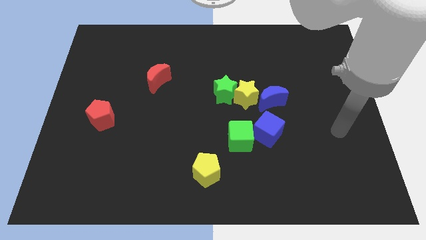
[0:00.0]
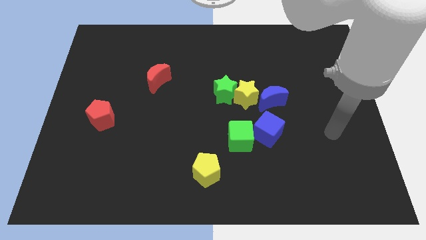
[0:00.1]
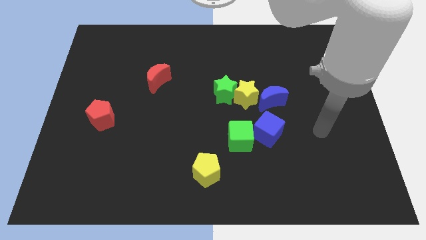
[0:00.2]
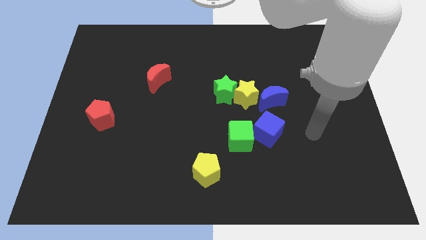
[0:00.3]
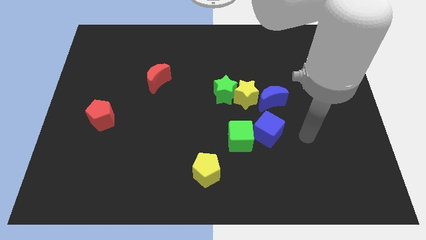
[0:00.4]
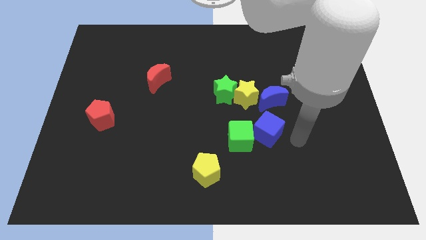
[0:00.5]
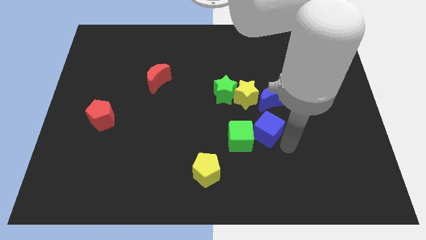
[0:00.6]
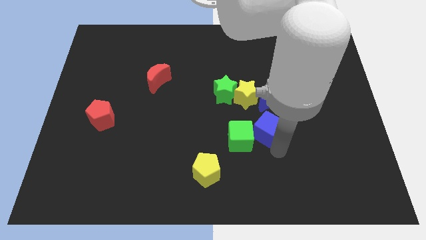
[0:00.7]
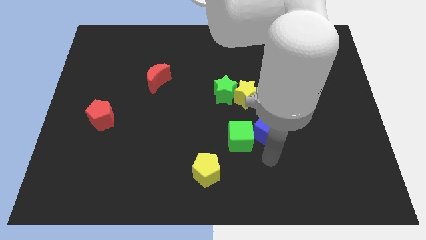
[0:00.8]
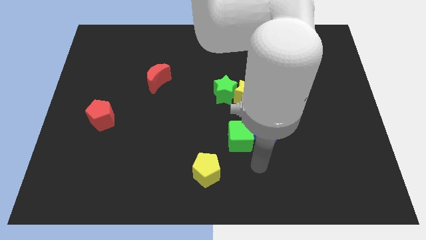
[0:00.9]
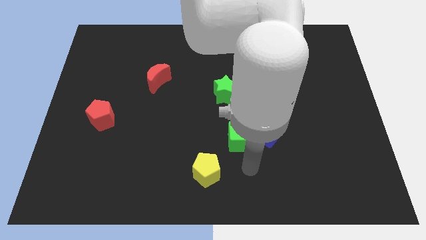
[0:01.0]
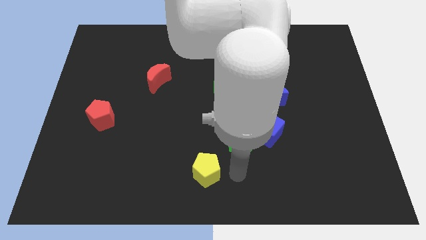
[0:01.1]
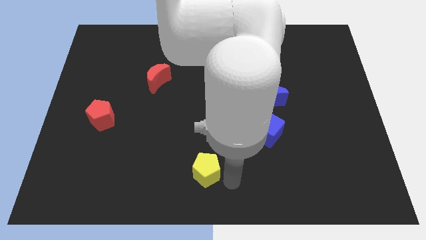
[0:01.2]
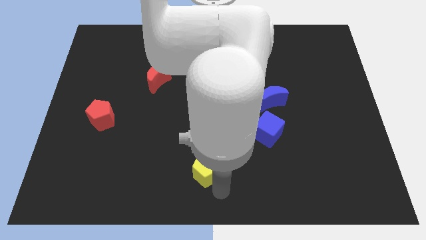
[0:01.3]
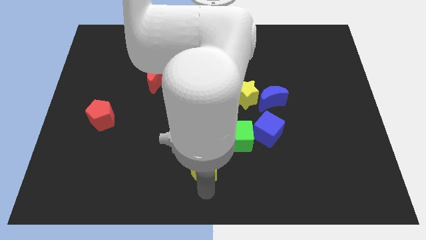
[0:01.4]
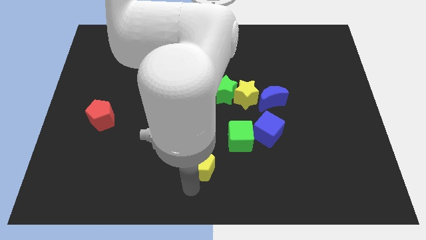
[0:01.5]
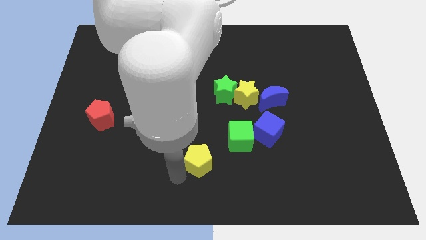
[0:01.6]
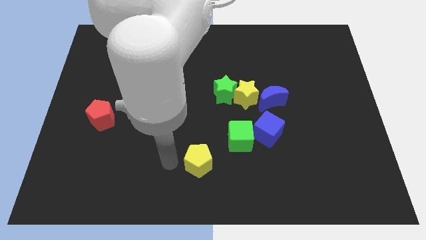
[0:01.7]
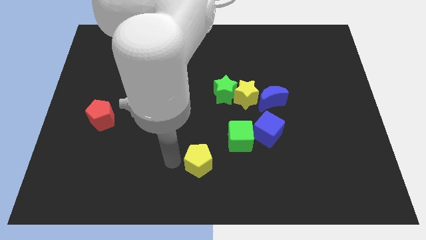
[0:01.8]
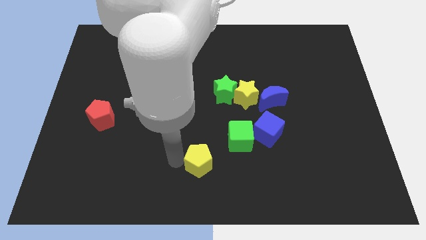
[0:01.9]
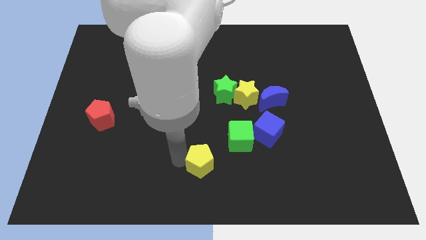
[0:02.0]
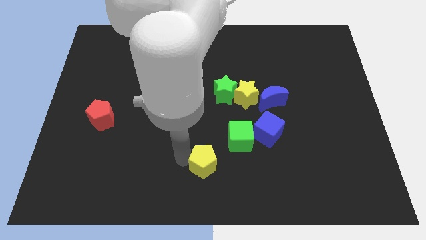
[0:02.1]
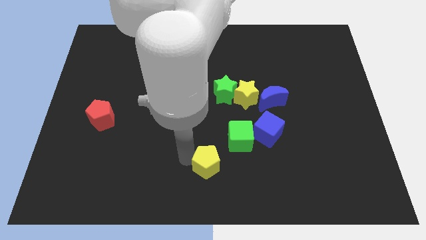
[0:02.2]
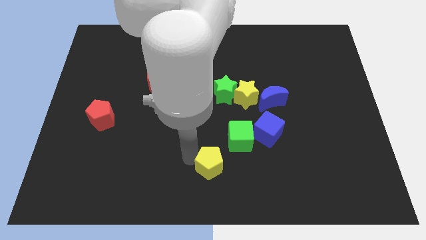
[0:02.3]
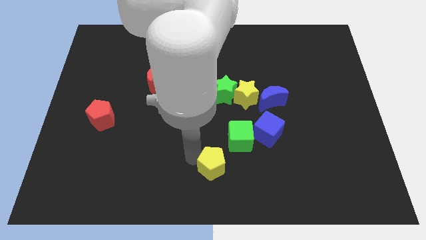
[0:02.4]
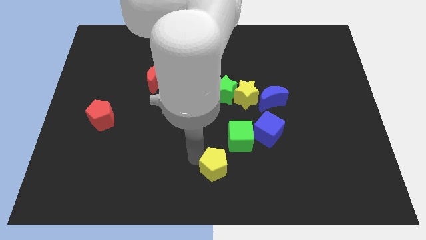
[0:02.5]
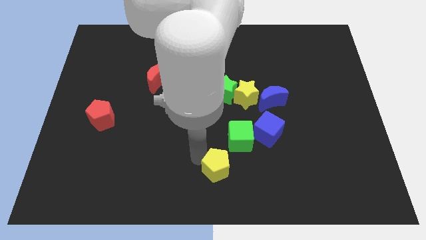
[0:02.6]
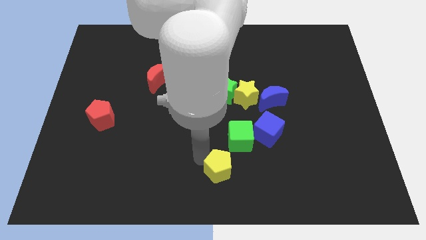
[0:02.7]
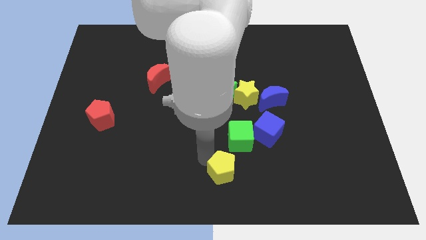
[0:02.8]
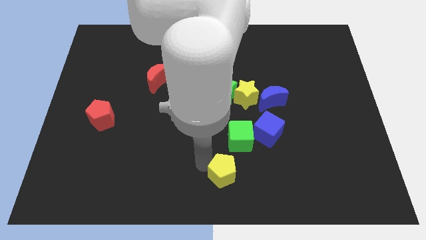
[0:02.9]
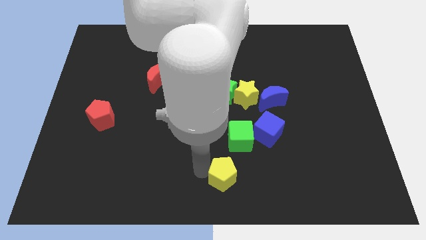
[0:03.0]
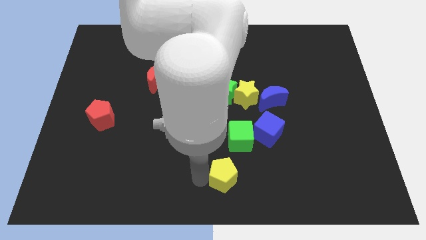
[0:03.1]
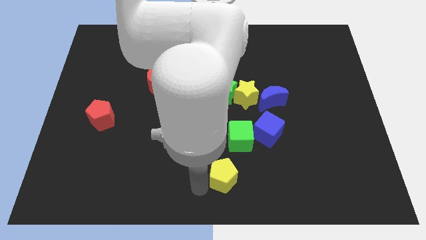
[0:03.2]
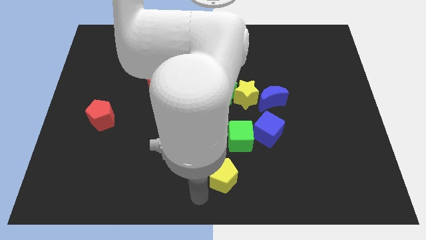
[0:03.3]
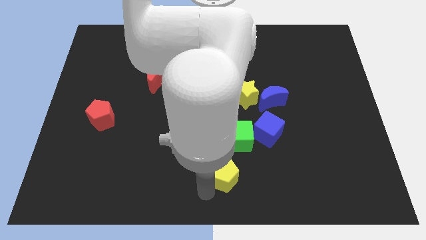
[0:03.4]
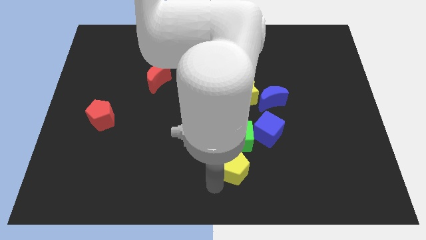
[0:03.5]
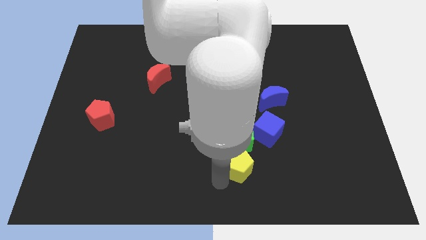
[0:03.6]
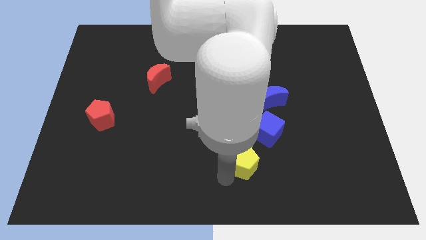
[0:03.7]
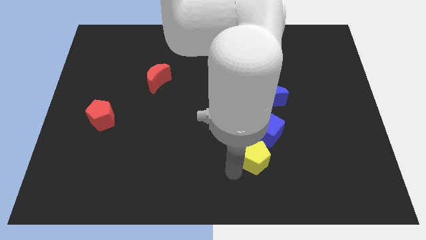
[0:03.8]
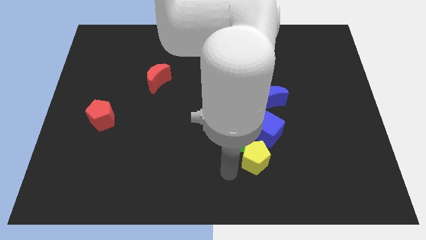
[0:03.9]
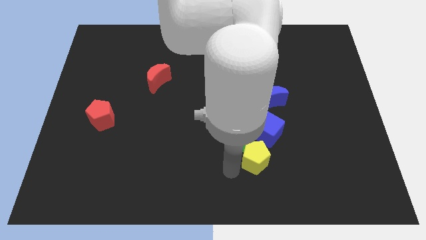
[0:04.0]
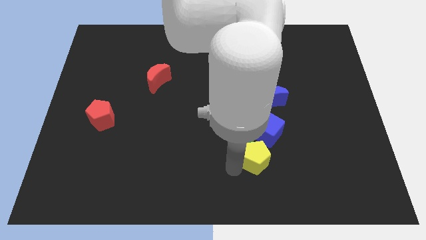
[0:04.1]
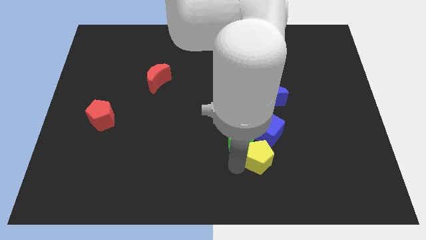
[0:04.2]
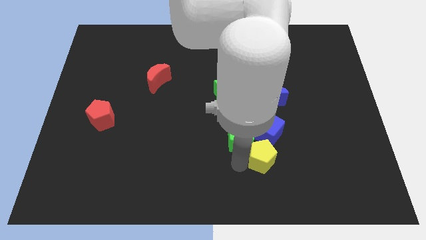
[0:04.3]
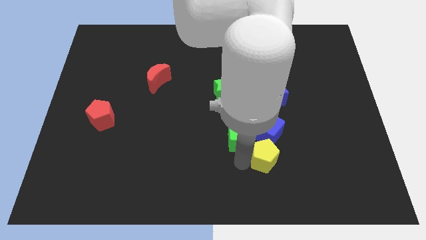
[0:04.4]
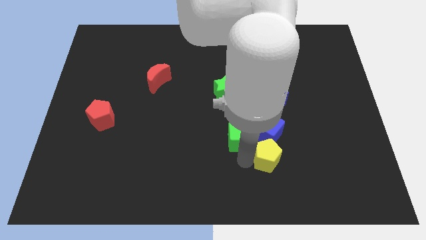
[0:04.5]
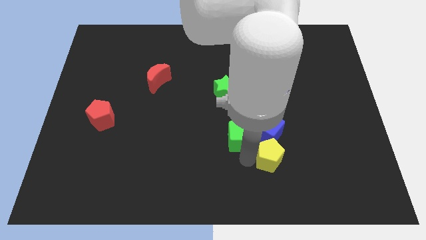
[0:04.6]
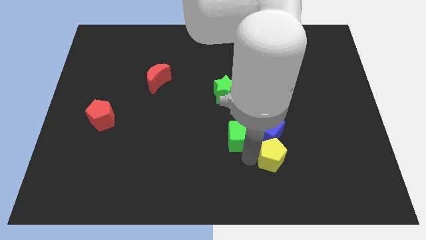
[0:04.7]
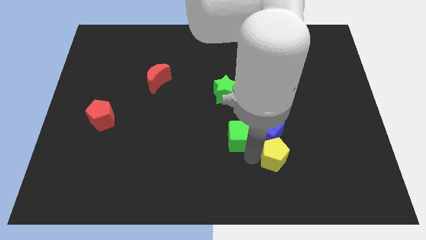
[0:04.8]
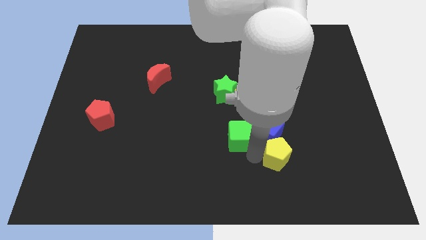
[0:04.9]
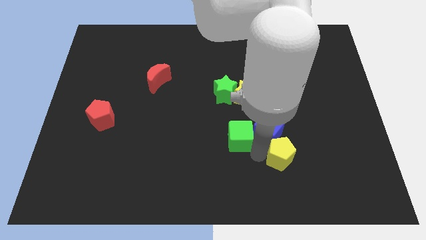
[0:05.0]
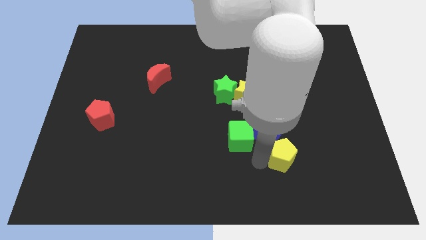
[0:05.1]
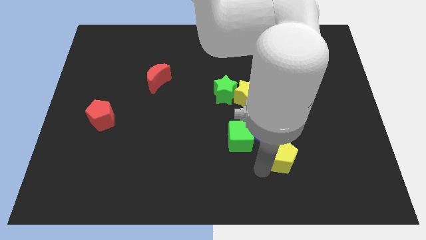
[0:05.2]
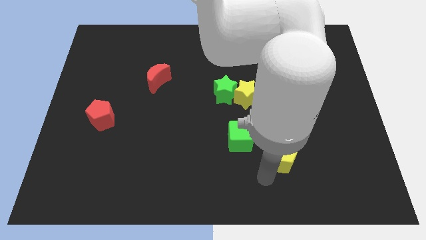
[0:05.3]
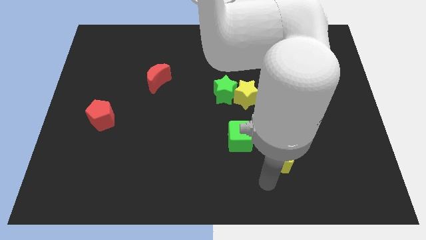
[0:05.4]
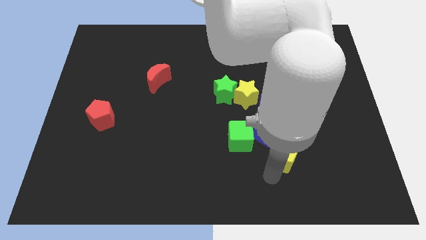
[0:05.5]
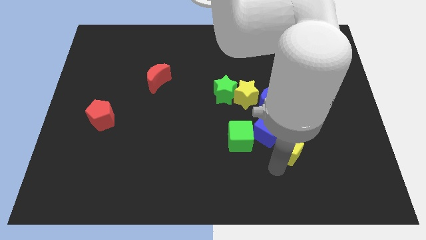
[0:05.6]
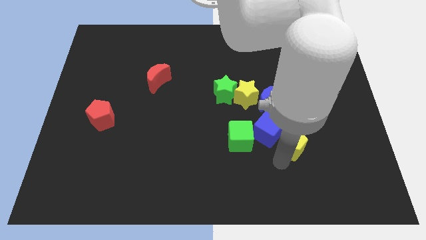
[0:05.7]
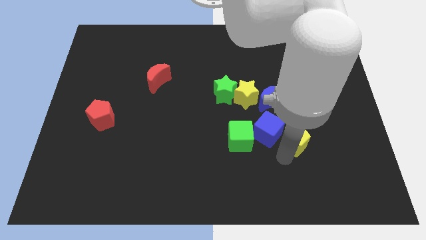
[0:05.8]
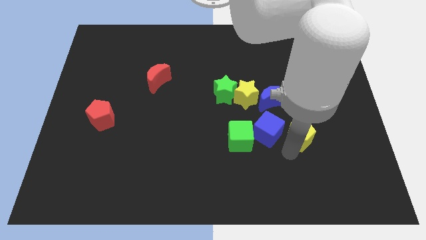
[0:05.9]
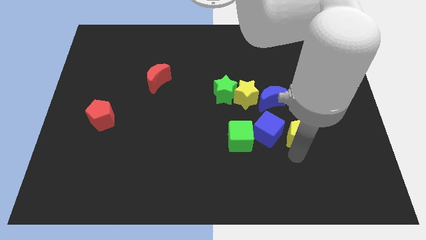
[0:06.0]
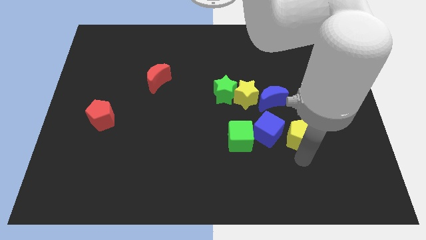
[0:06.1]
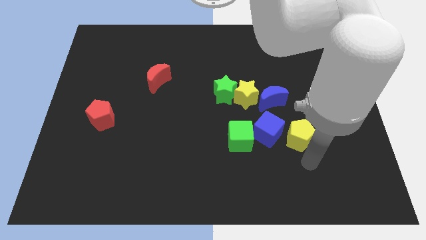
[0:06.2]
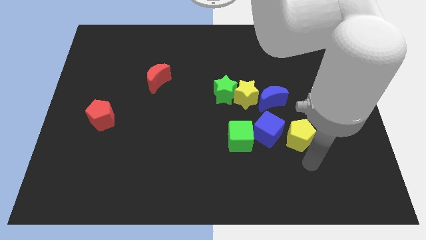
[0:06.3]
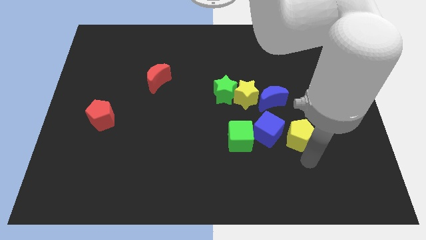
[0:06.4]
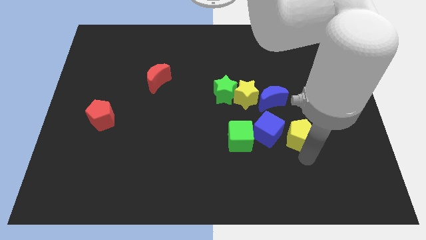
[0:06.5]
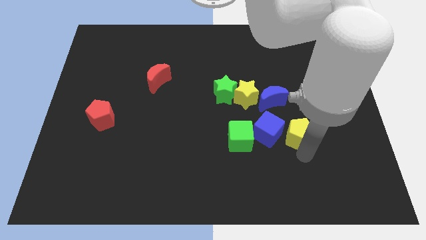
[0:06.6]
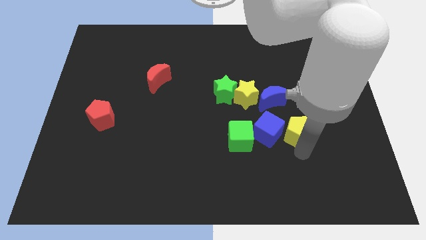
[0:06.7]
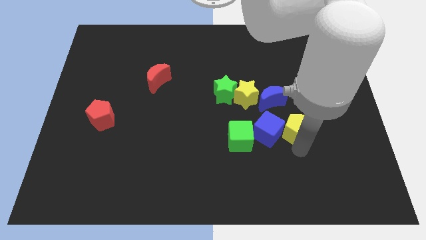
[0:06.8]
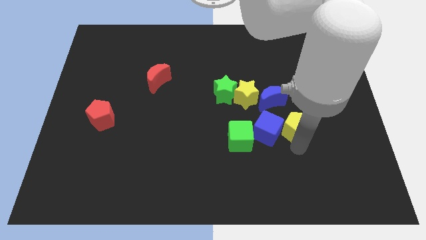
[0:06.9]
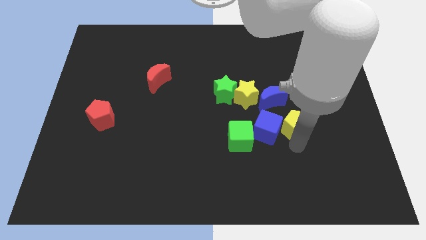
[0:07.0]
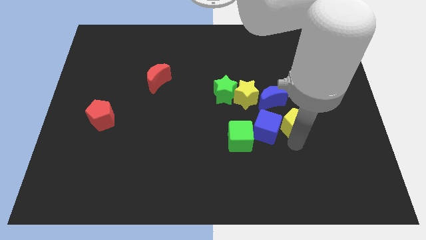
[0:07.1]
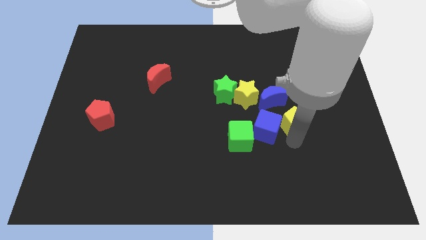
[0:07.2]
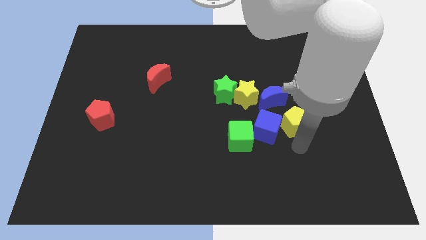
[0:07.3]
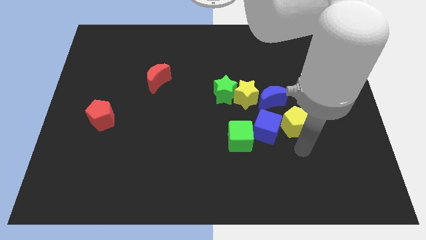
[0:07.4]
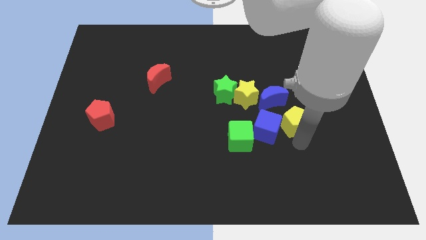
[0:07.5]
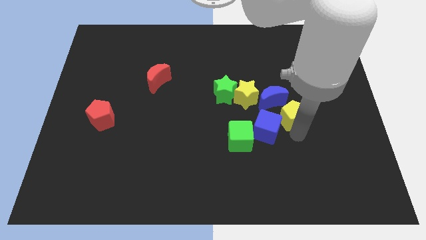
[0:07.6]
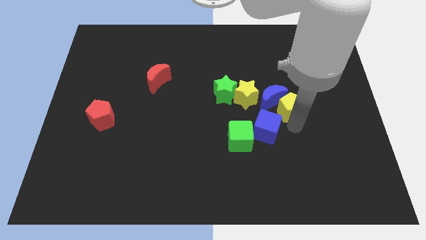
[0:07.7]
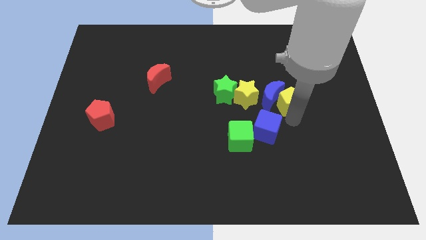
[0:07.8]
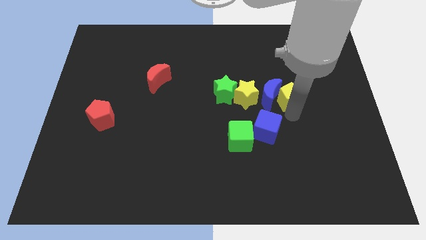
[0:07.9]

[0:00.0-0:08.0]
put the yellow pentagon just right of the green star
